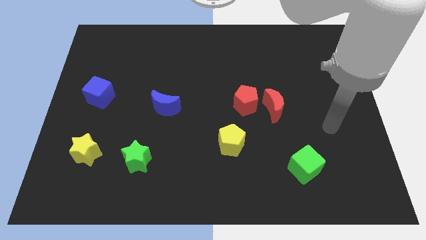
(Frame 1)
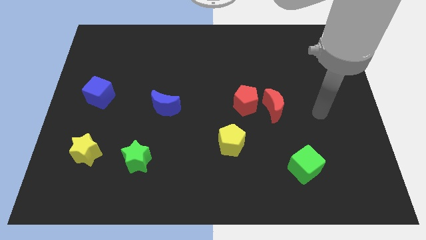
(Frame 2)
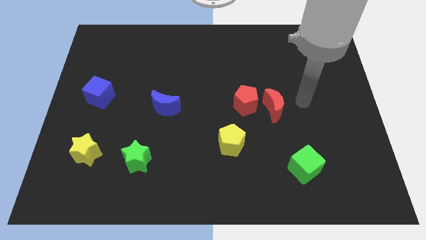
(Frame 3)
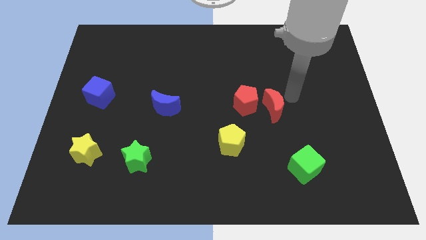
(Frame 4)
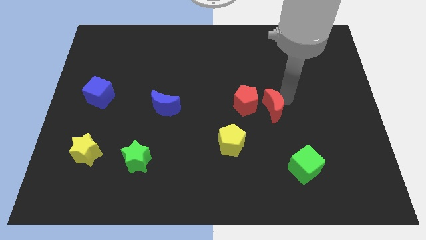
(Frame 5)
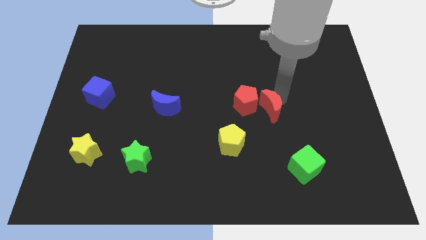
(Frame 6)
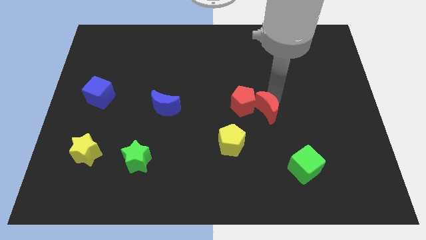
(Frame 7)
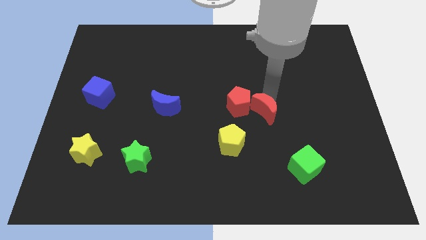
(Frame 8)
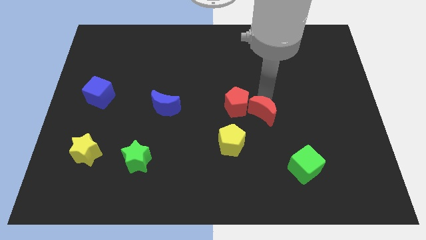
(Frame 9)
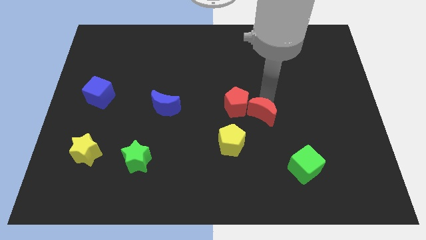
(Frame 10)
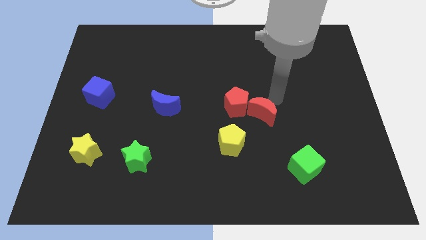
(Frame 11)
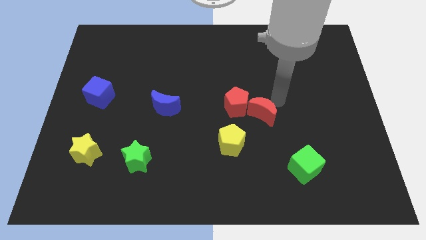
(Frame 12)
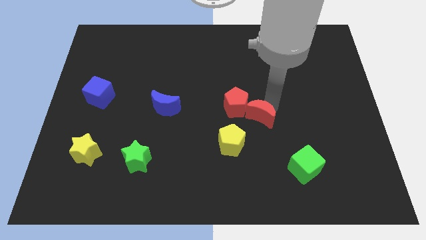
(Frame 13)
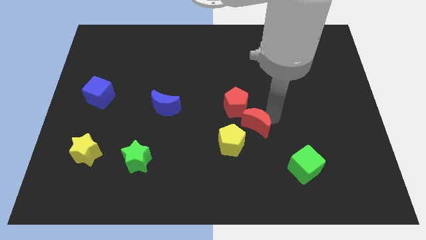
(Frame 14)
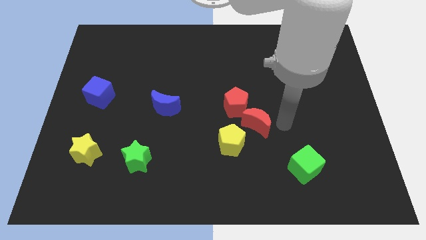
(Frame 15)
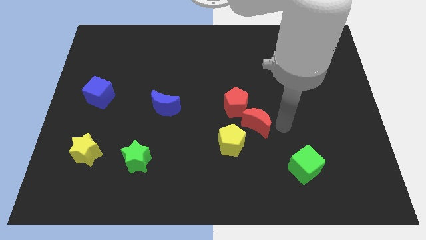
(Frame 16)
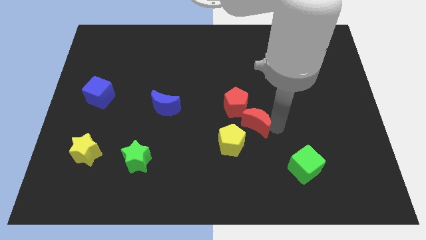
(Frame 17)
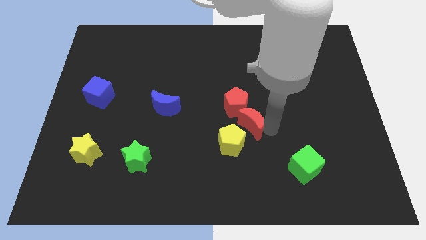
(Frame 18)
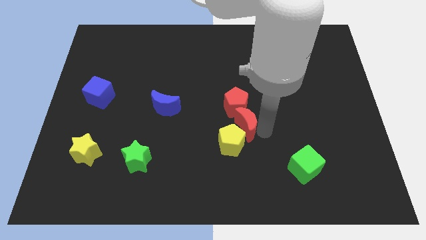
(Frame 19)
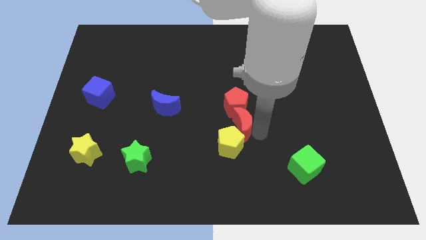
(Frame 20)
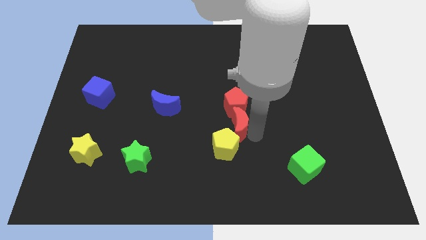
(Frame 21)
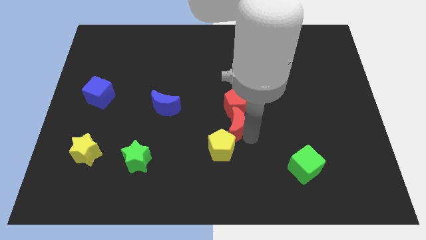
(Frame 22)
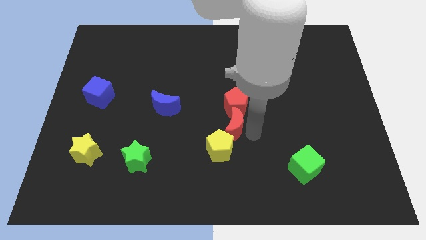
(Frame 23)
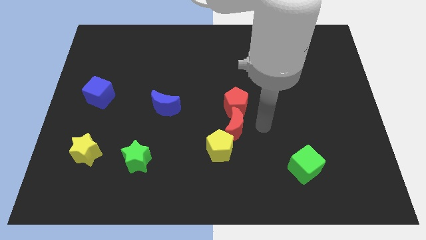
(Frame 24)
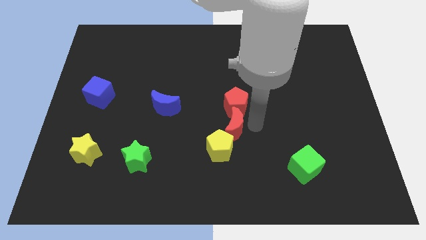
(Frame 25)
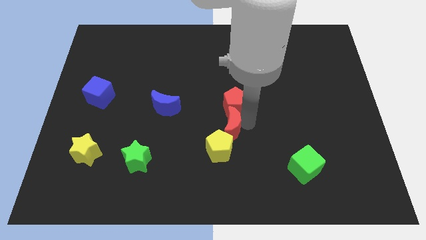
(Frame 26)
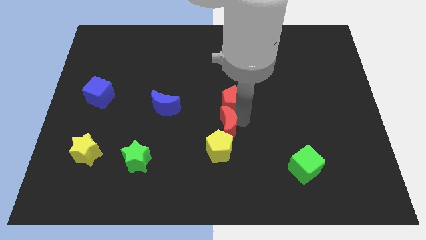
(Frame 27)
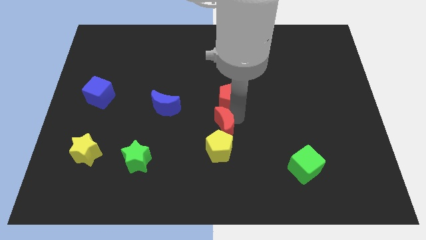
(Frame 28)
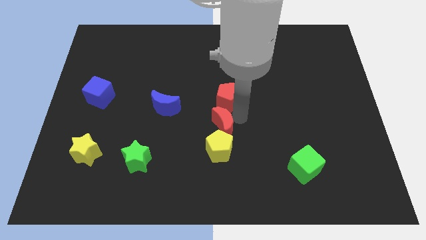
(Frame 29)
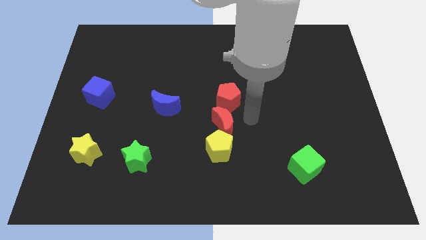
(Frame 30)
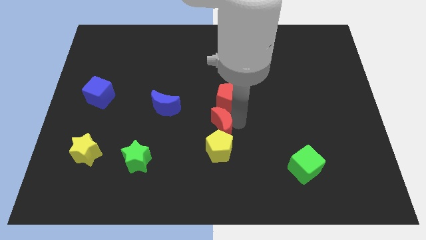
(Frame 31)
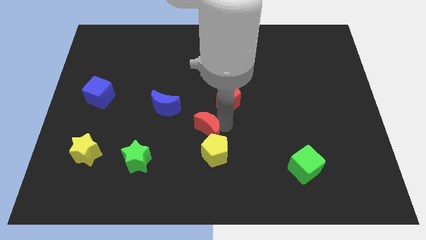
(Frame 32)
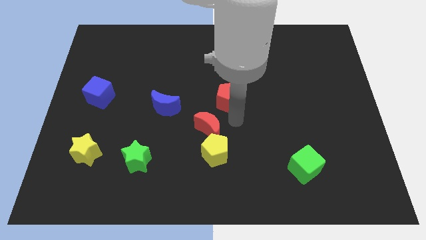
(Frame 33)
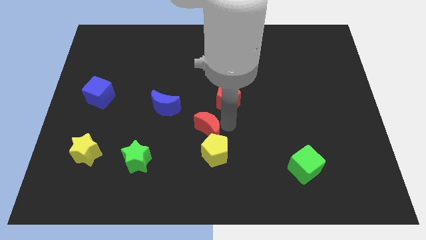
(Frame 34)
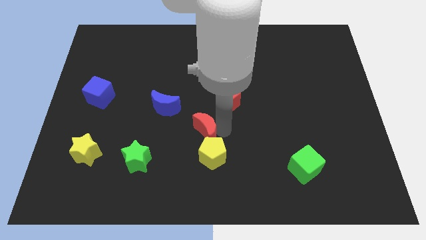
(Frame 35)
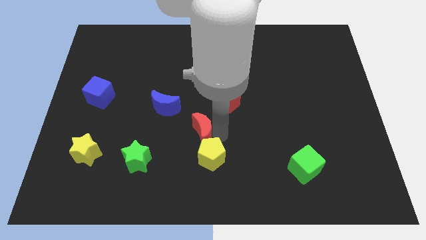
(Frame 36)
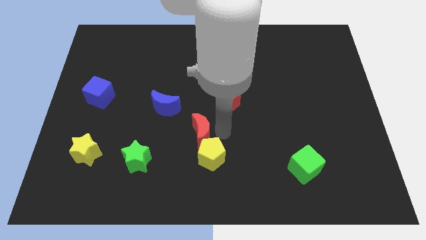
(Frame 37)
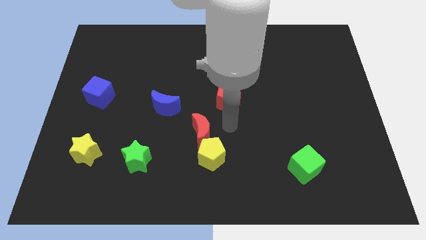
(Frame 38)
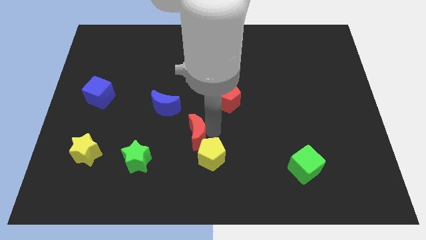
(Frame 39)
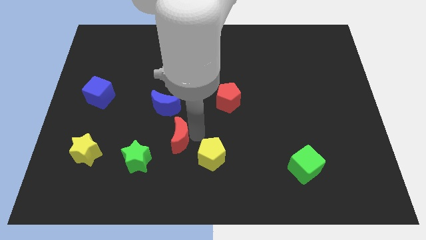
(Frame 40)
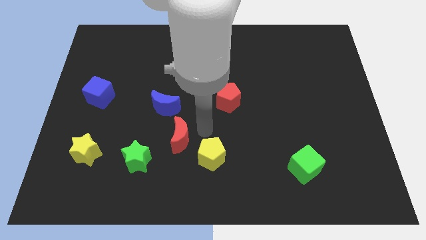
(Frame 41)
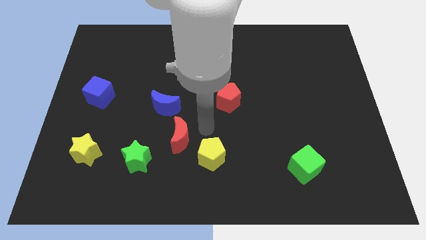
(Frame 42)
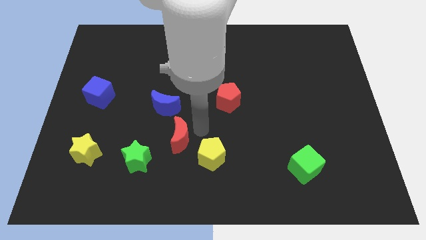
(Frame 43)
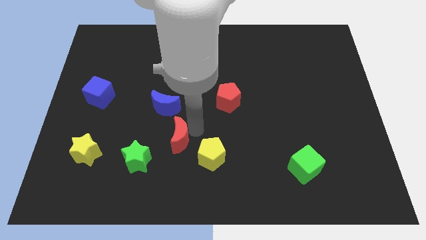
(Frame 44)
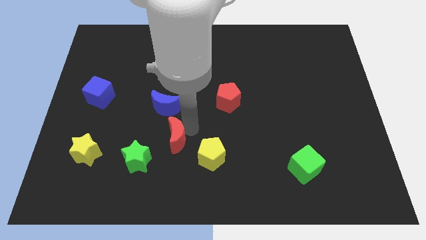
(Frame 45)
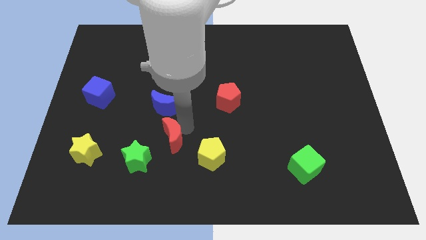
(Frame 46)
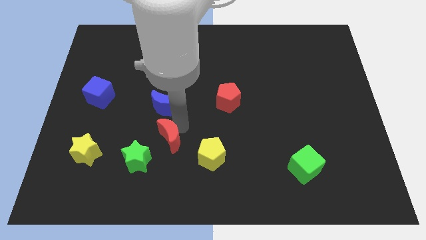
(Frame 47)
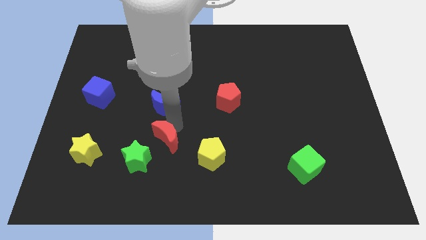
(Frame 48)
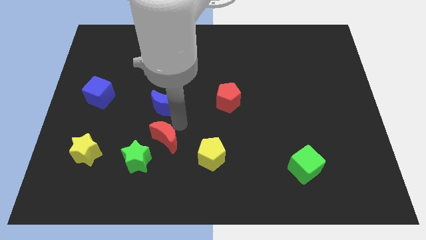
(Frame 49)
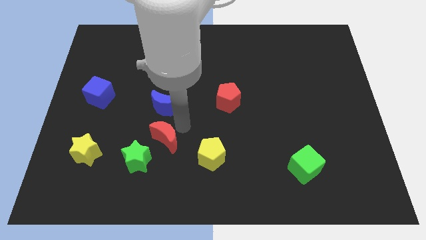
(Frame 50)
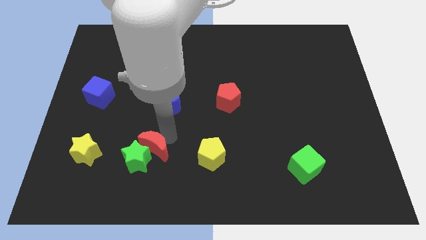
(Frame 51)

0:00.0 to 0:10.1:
move the red moon next to the green star

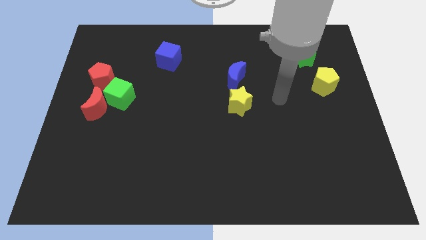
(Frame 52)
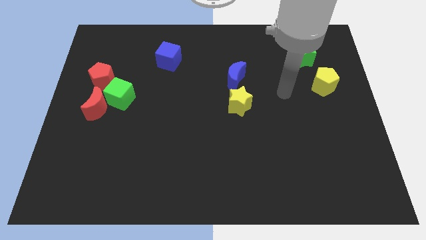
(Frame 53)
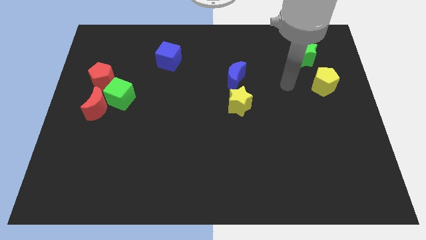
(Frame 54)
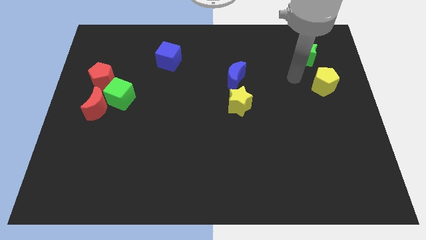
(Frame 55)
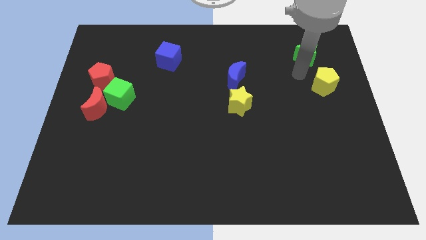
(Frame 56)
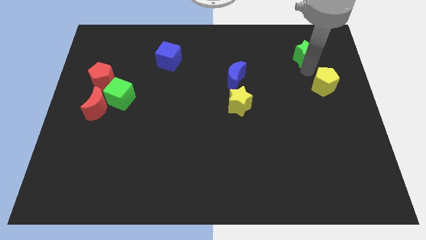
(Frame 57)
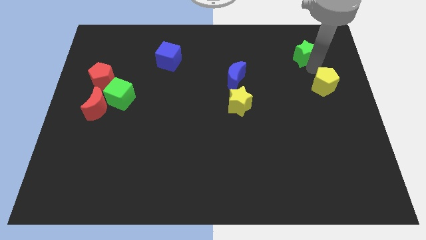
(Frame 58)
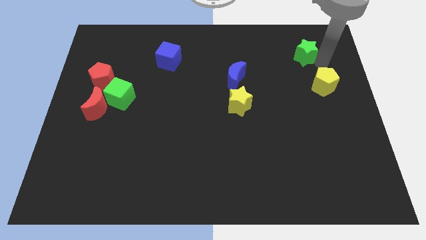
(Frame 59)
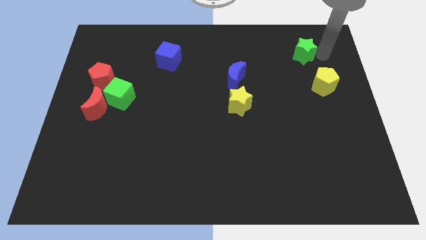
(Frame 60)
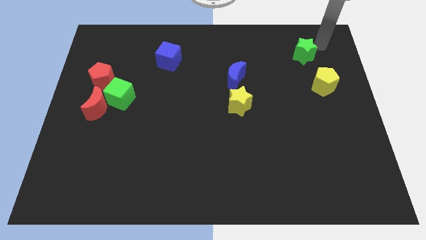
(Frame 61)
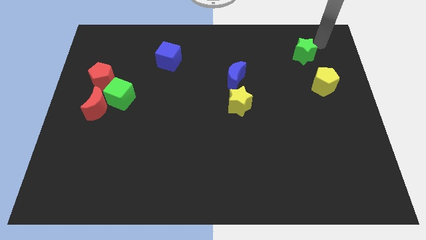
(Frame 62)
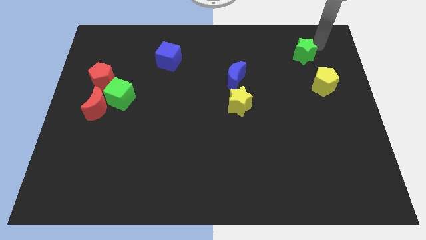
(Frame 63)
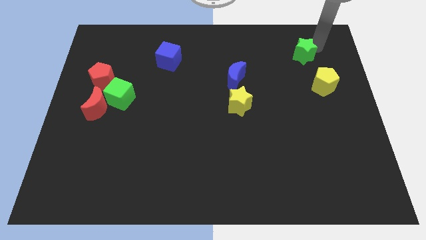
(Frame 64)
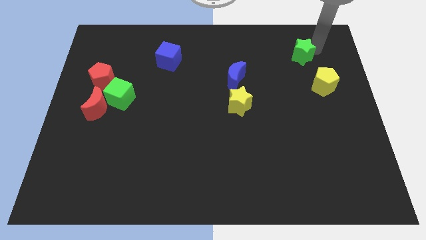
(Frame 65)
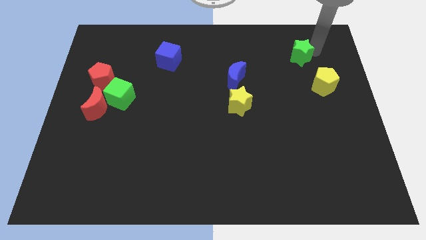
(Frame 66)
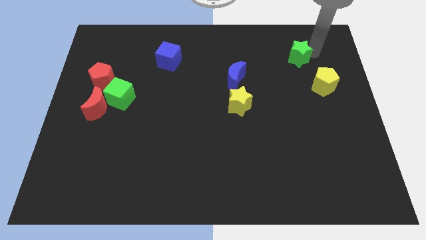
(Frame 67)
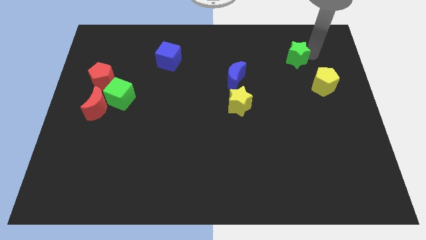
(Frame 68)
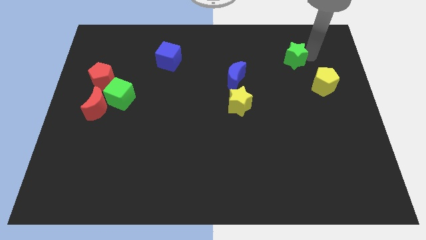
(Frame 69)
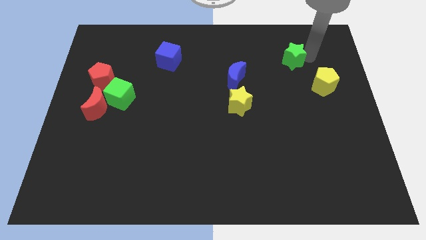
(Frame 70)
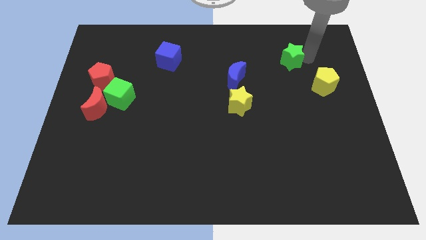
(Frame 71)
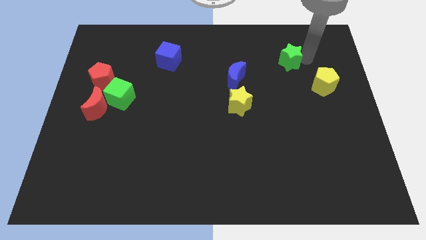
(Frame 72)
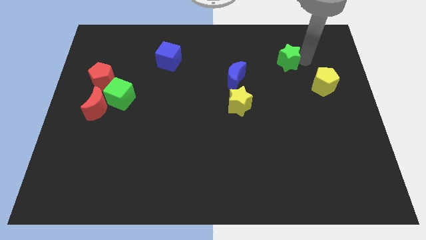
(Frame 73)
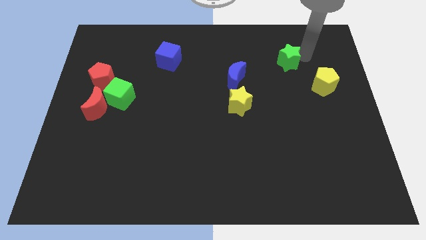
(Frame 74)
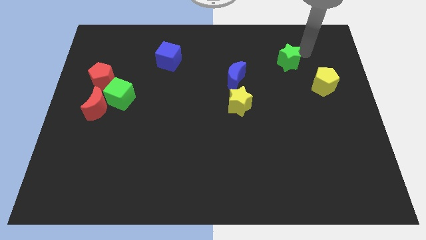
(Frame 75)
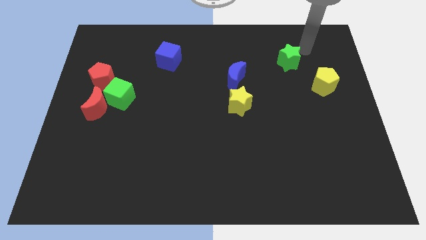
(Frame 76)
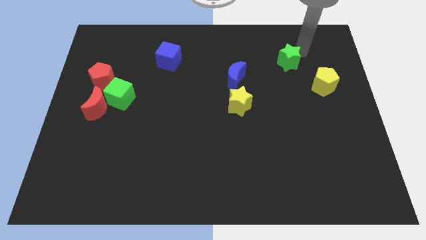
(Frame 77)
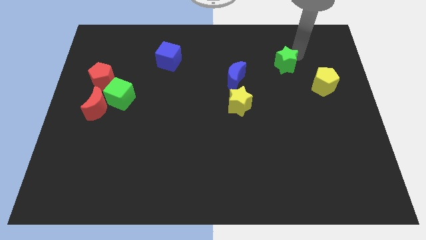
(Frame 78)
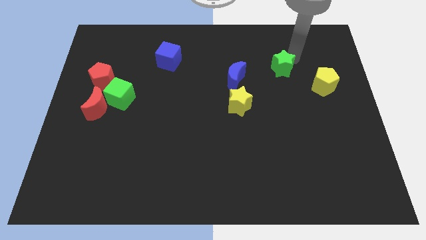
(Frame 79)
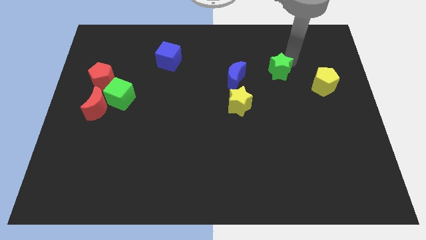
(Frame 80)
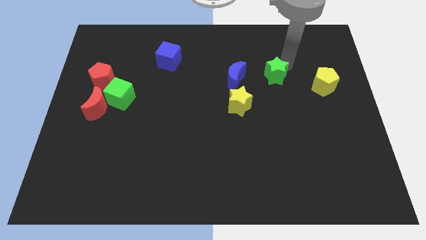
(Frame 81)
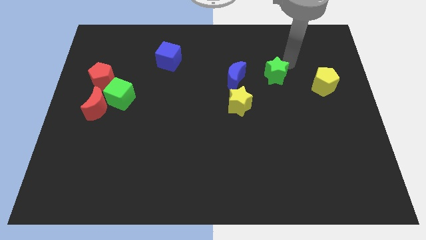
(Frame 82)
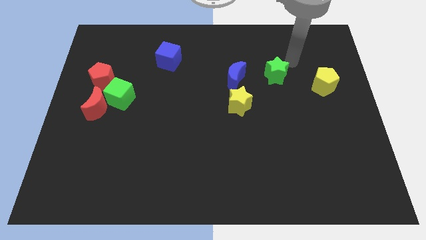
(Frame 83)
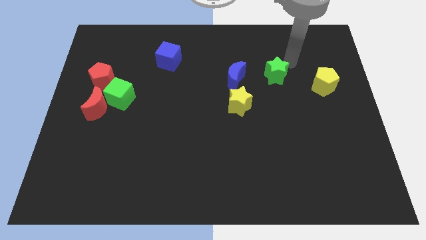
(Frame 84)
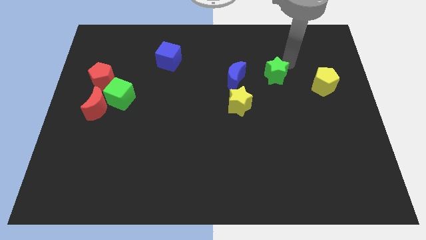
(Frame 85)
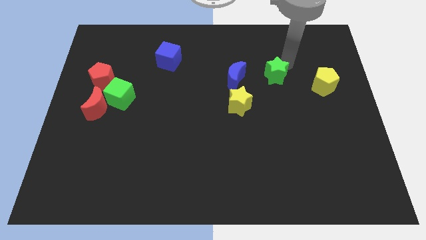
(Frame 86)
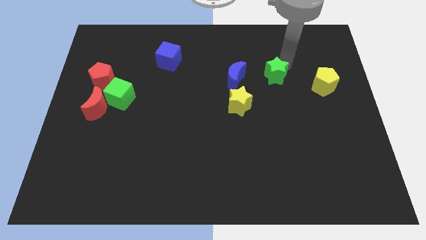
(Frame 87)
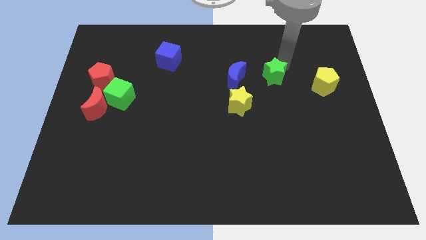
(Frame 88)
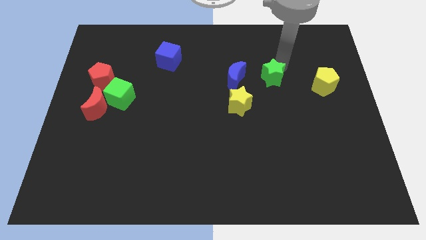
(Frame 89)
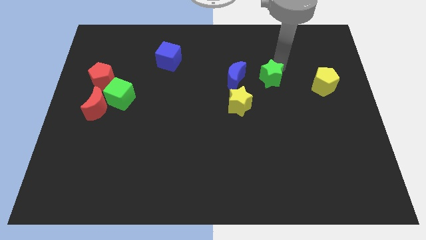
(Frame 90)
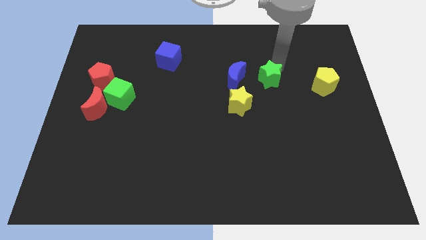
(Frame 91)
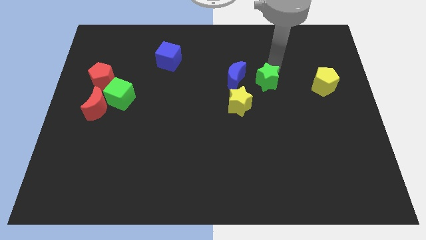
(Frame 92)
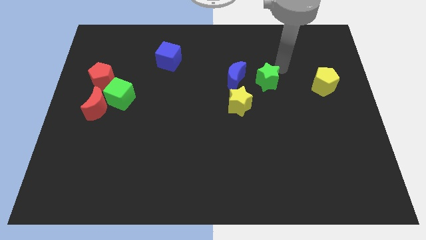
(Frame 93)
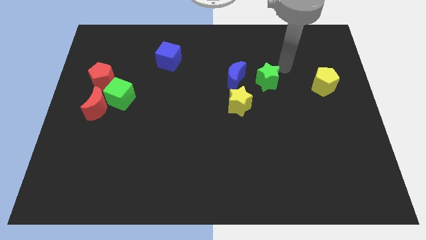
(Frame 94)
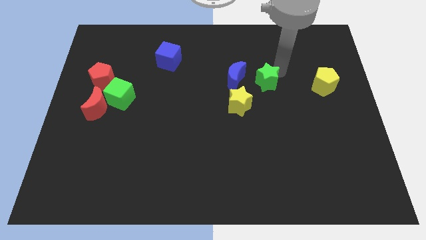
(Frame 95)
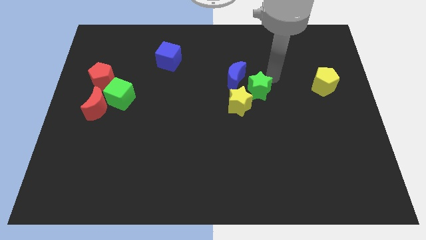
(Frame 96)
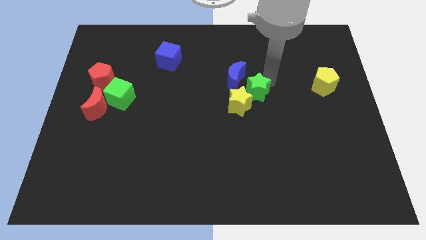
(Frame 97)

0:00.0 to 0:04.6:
put the green star next to the yellow star
